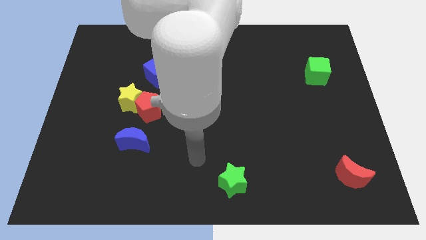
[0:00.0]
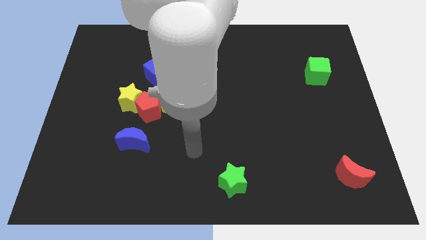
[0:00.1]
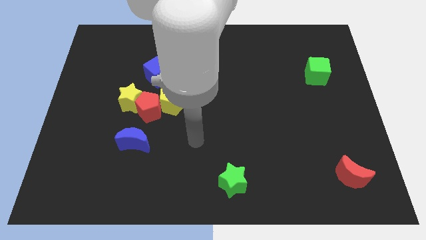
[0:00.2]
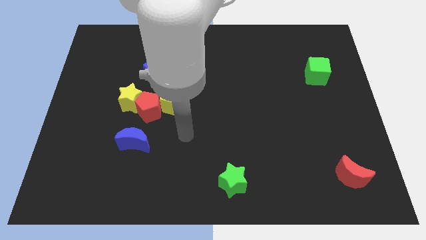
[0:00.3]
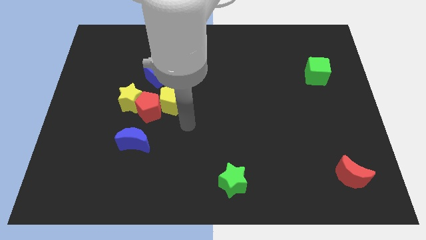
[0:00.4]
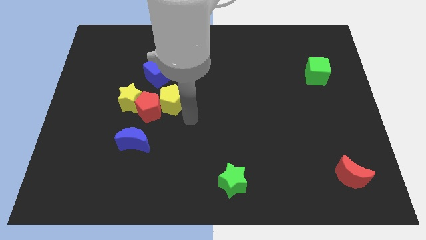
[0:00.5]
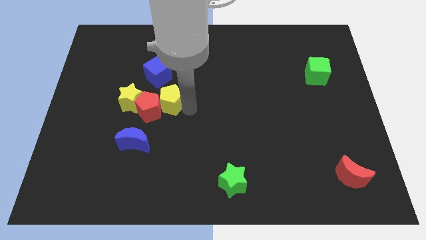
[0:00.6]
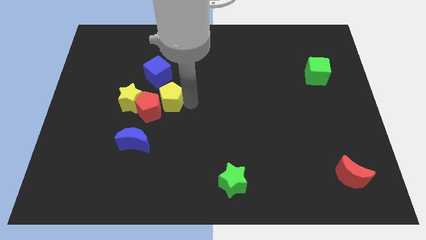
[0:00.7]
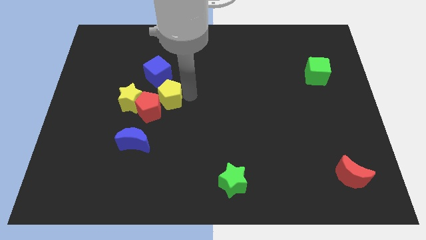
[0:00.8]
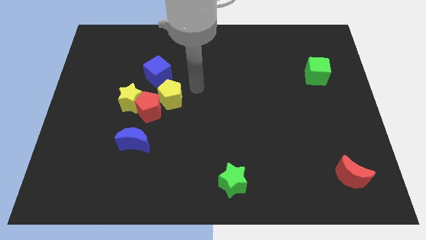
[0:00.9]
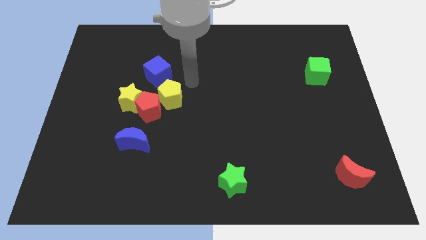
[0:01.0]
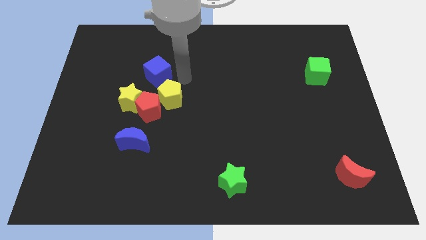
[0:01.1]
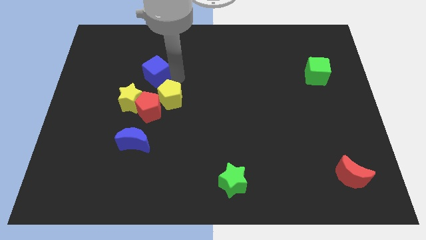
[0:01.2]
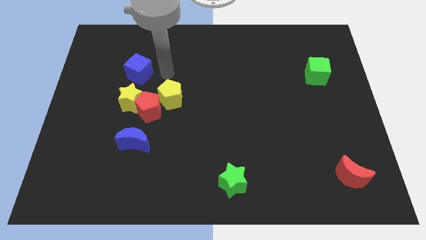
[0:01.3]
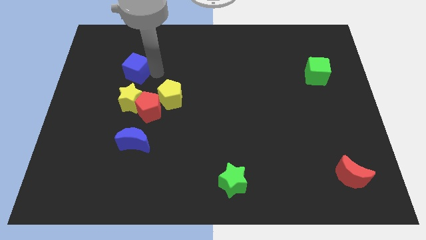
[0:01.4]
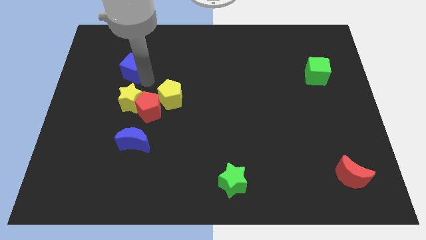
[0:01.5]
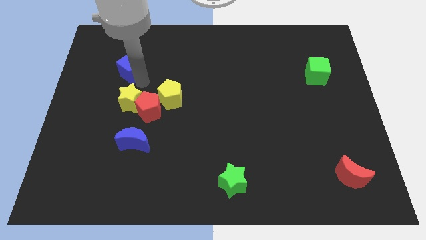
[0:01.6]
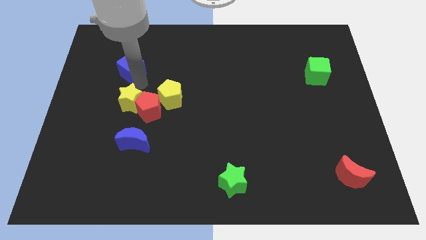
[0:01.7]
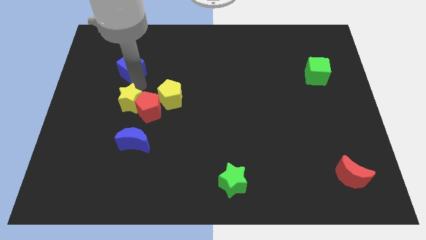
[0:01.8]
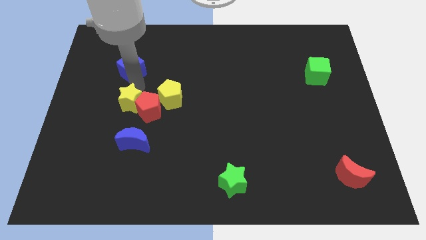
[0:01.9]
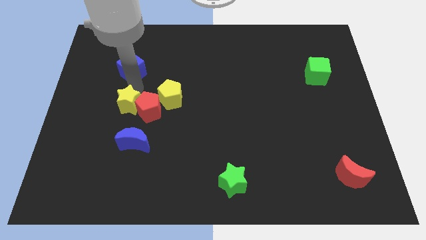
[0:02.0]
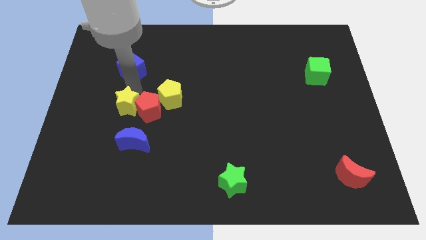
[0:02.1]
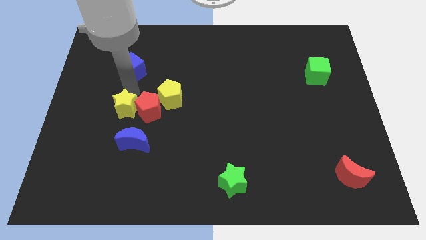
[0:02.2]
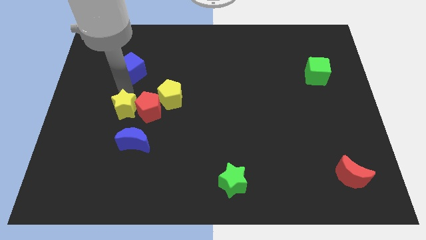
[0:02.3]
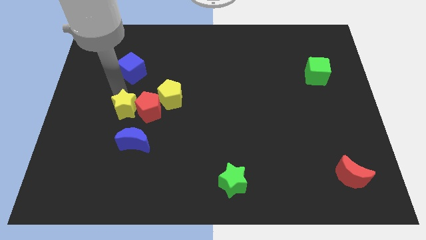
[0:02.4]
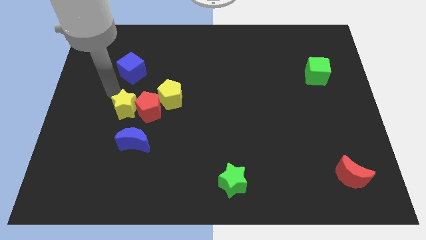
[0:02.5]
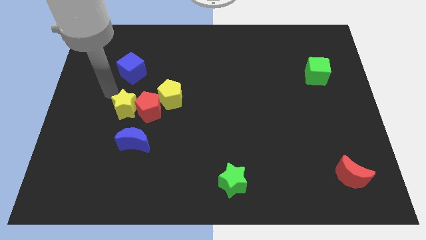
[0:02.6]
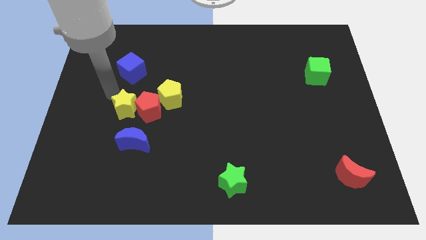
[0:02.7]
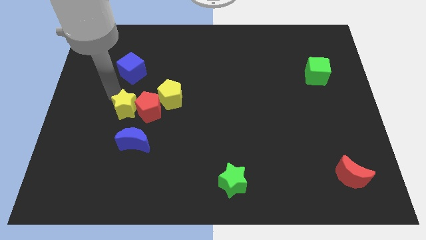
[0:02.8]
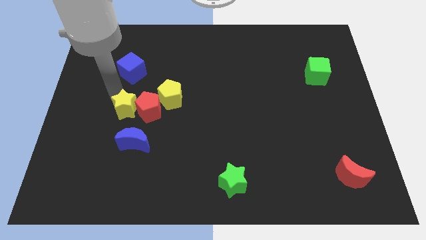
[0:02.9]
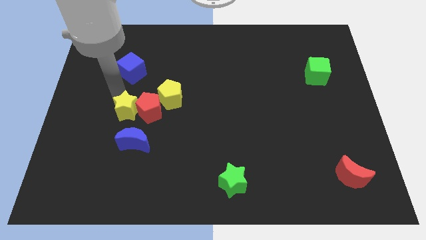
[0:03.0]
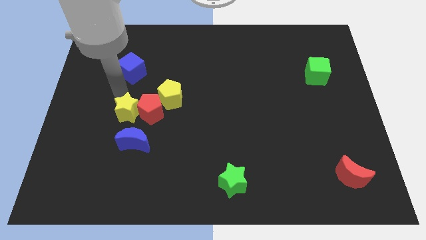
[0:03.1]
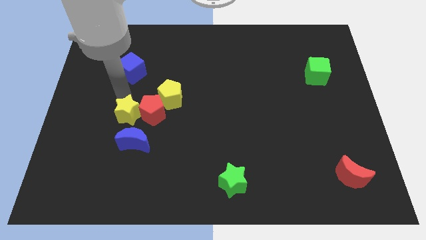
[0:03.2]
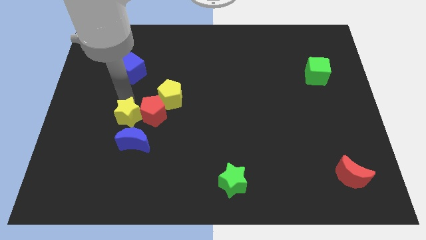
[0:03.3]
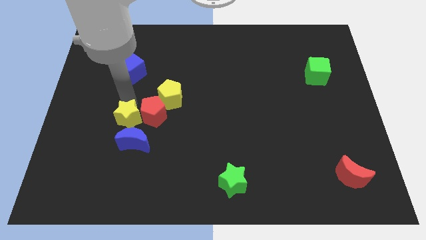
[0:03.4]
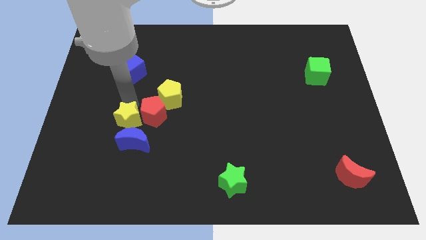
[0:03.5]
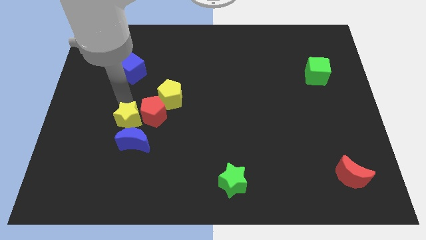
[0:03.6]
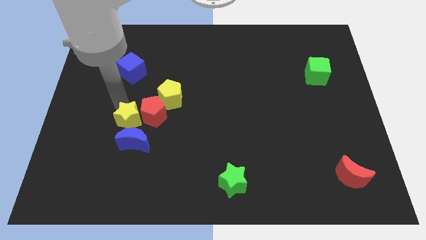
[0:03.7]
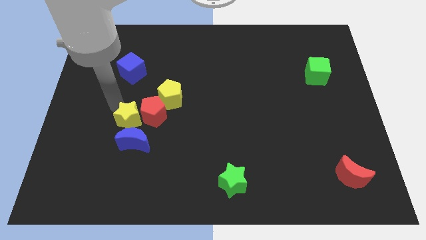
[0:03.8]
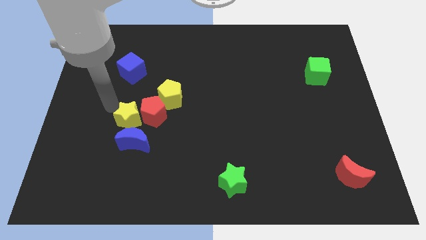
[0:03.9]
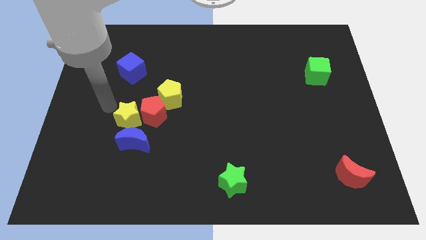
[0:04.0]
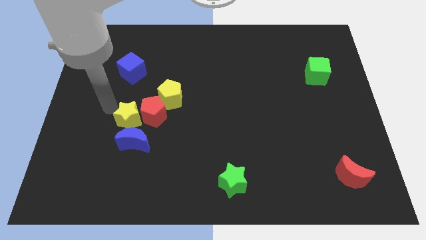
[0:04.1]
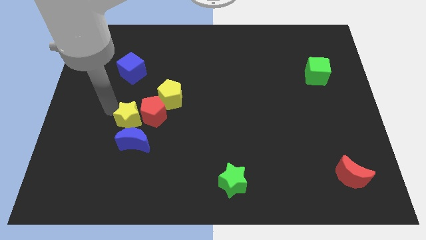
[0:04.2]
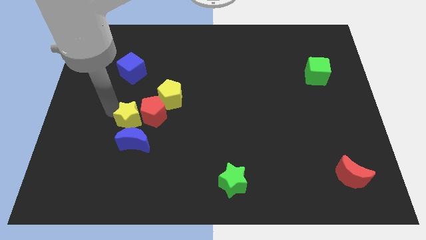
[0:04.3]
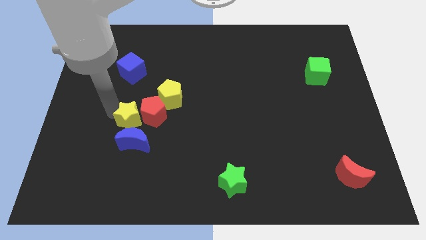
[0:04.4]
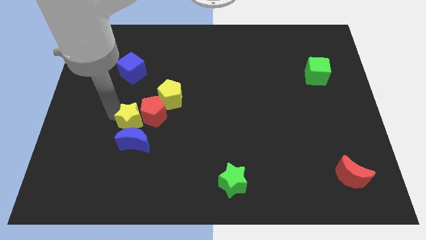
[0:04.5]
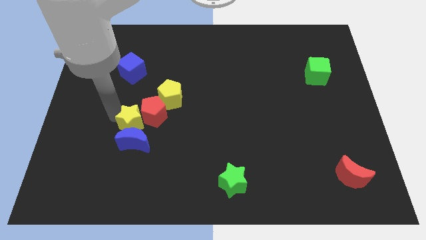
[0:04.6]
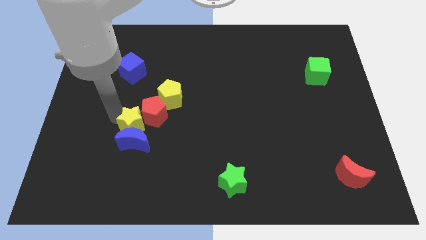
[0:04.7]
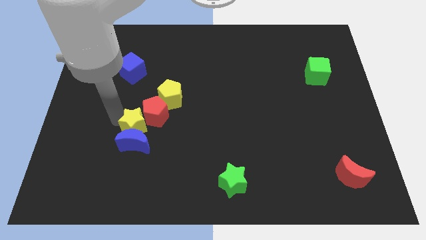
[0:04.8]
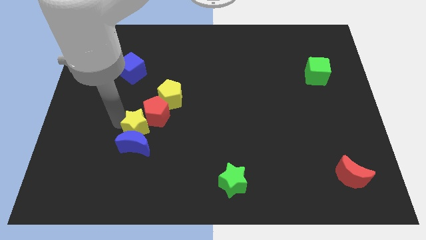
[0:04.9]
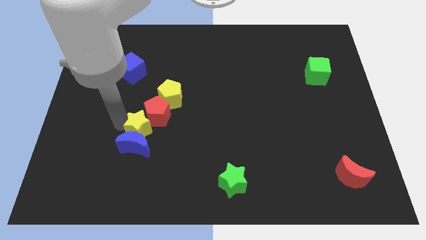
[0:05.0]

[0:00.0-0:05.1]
slide the yellow star down and right somewhat

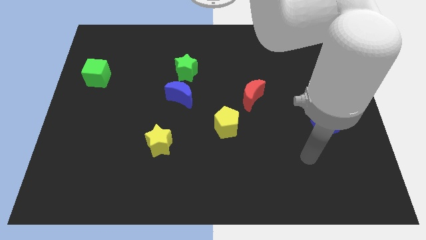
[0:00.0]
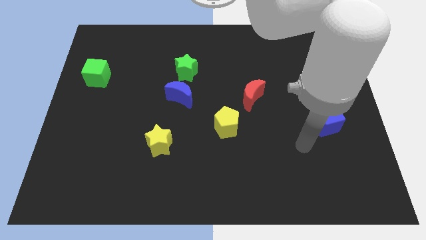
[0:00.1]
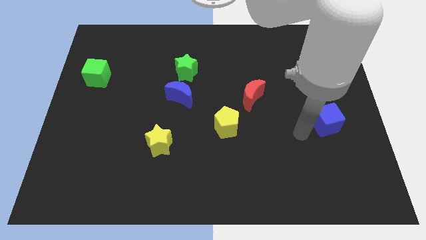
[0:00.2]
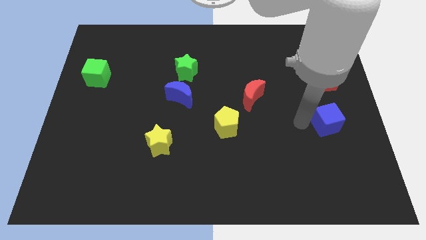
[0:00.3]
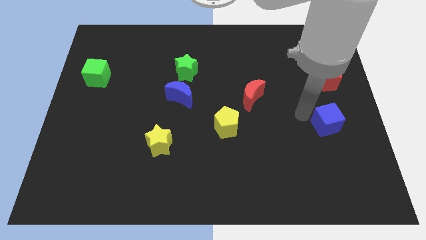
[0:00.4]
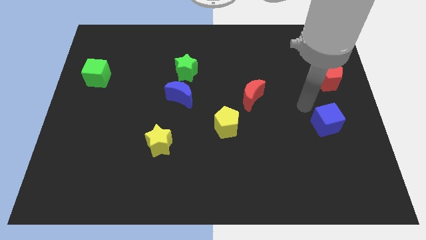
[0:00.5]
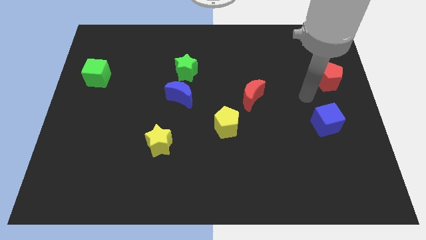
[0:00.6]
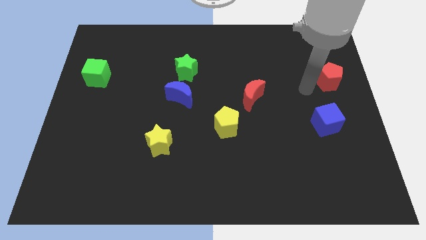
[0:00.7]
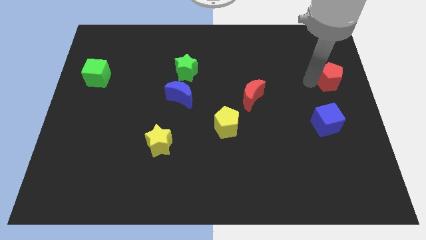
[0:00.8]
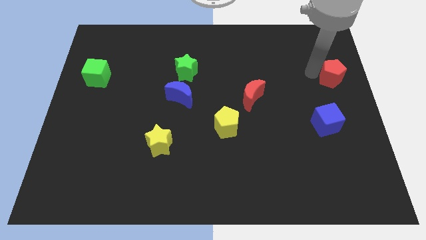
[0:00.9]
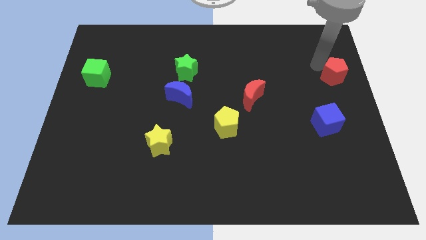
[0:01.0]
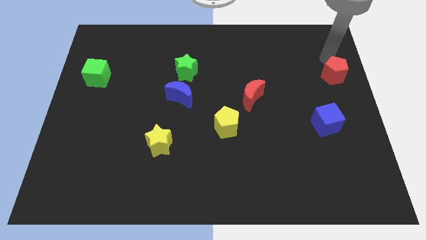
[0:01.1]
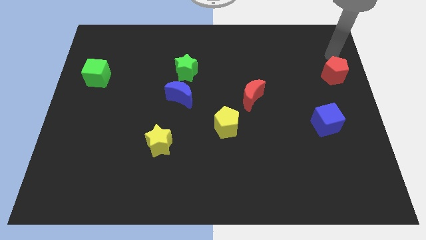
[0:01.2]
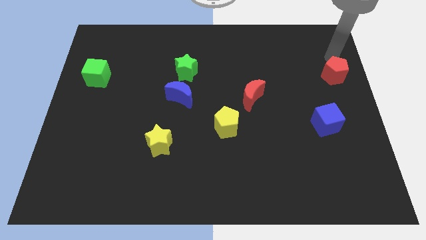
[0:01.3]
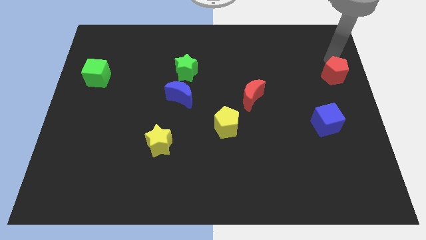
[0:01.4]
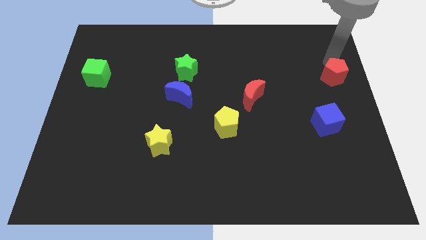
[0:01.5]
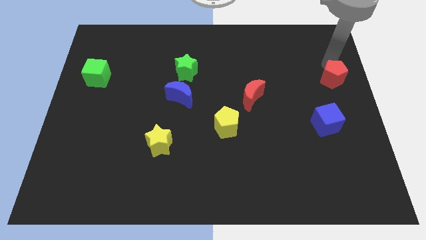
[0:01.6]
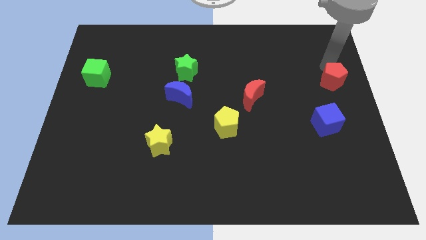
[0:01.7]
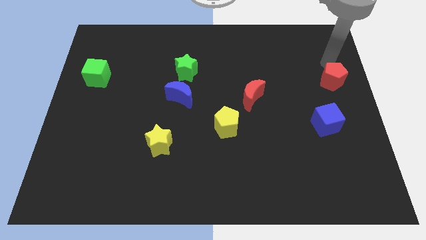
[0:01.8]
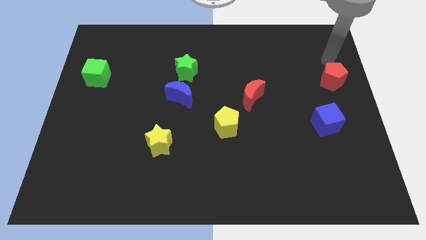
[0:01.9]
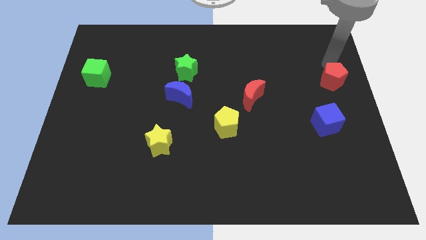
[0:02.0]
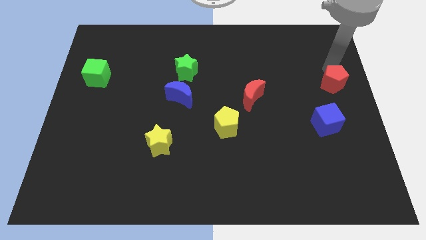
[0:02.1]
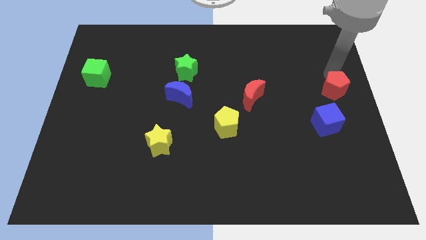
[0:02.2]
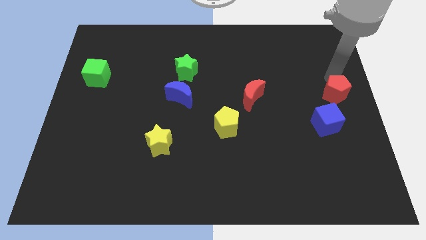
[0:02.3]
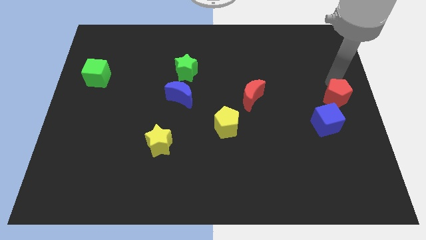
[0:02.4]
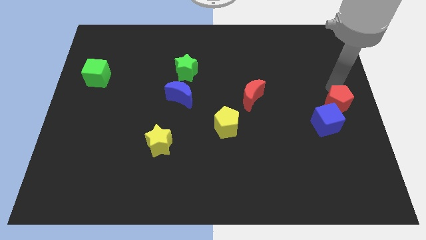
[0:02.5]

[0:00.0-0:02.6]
push the red pentagon downwards a bit

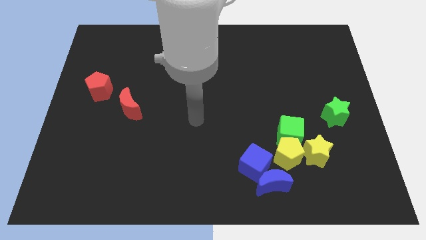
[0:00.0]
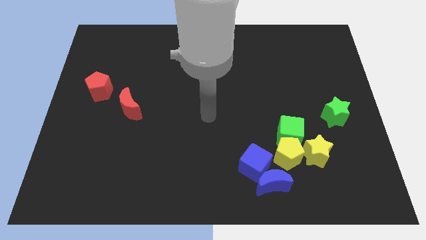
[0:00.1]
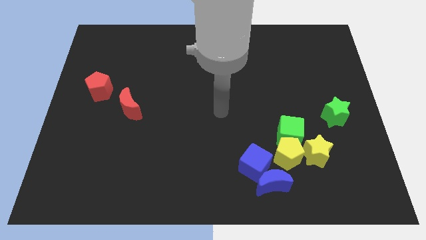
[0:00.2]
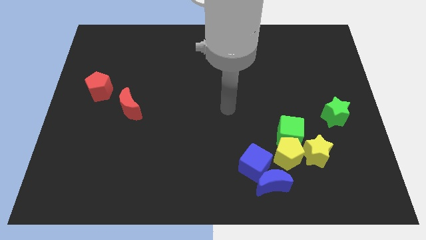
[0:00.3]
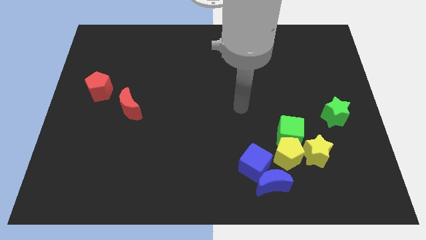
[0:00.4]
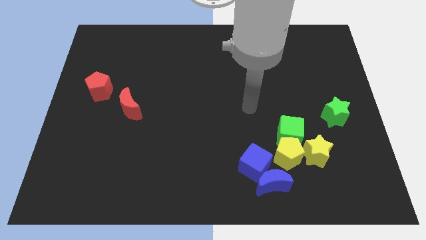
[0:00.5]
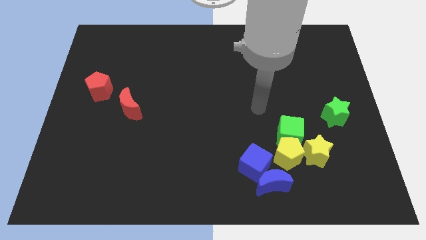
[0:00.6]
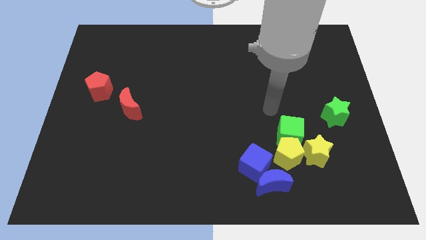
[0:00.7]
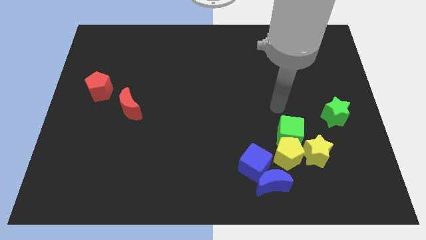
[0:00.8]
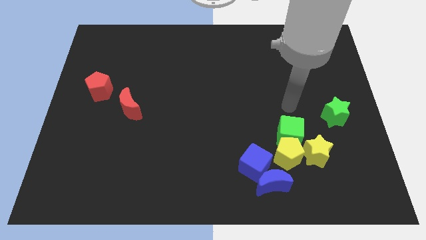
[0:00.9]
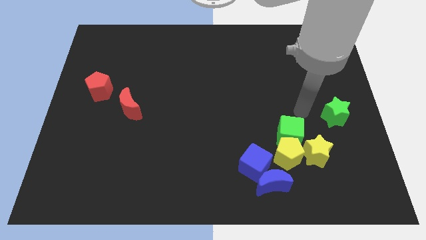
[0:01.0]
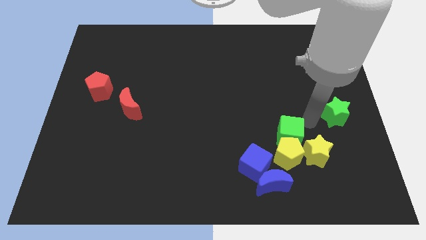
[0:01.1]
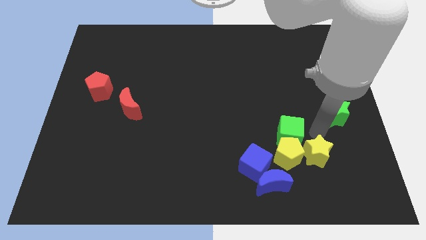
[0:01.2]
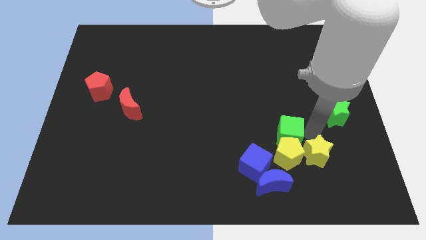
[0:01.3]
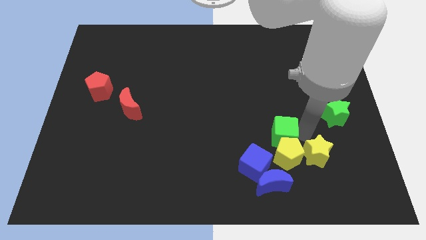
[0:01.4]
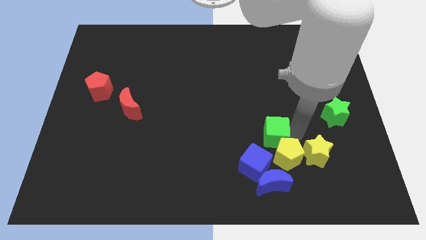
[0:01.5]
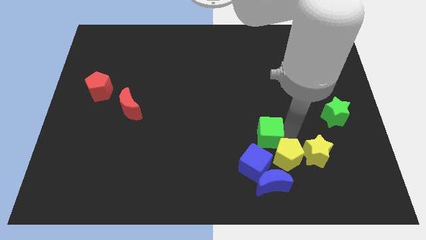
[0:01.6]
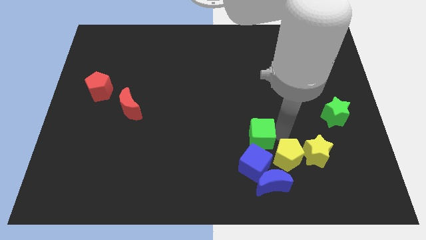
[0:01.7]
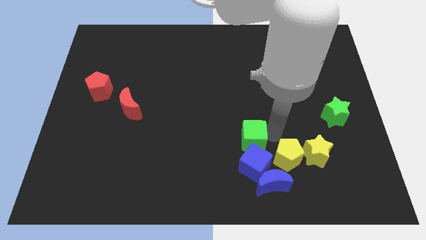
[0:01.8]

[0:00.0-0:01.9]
slide the green cube a little bit to the left
